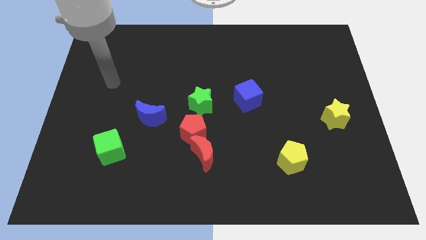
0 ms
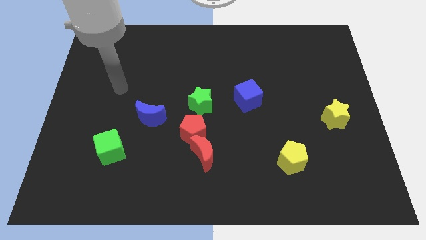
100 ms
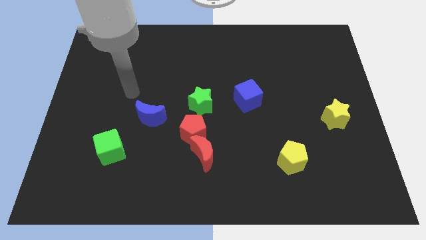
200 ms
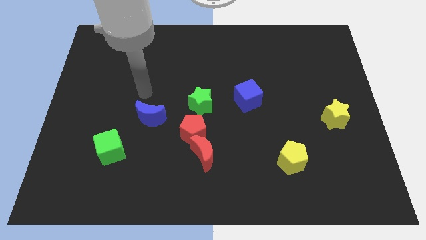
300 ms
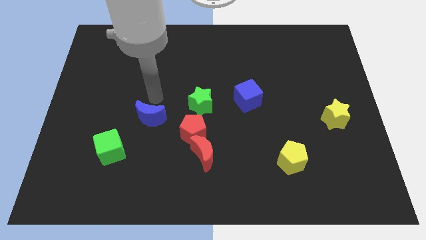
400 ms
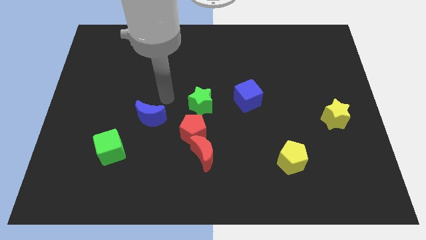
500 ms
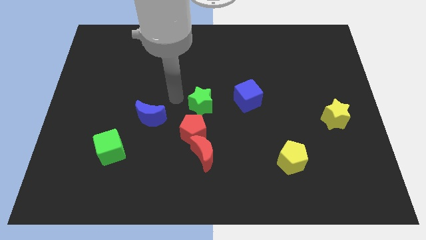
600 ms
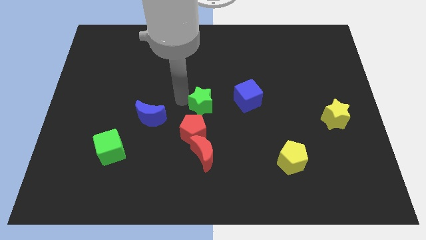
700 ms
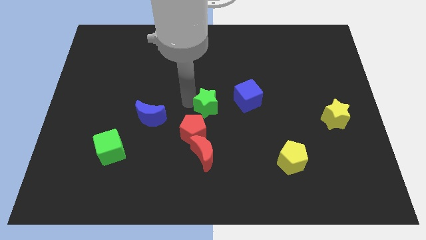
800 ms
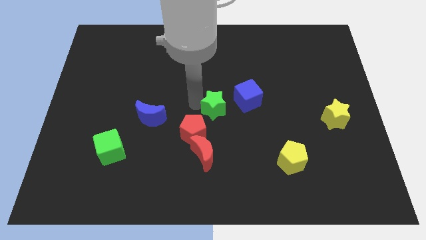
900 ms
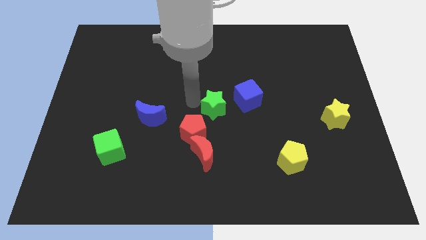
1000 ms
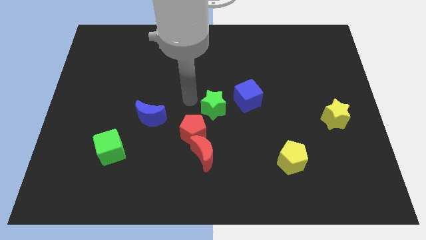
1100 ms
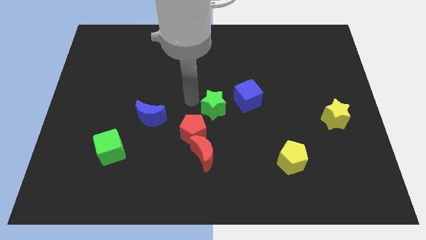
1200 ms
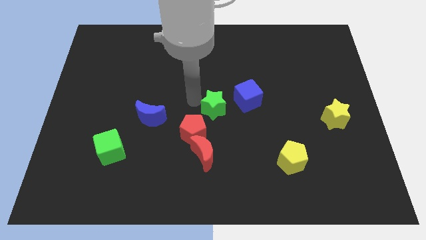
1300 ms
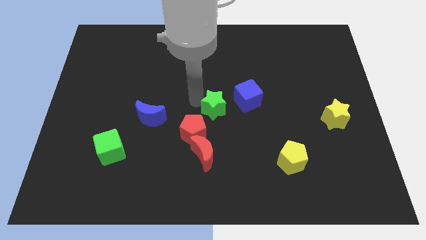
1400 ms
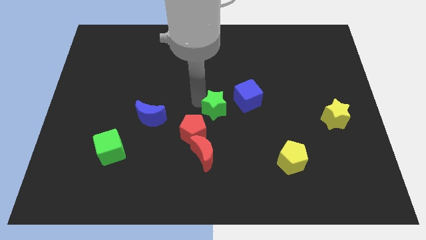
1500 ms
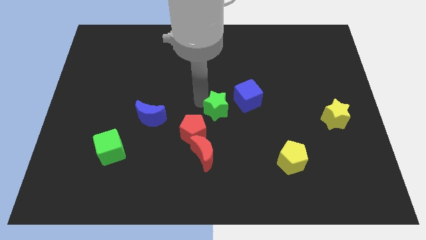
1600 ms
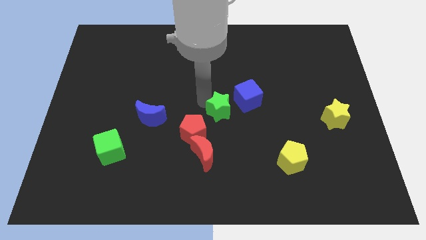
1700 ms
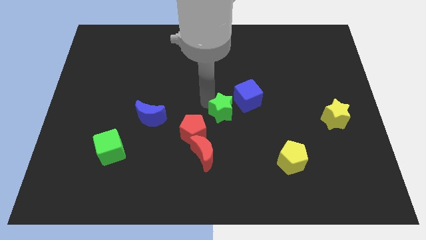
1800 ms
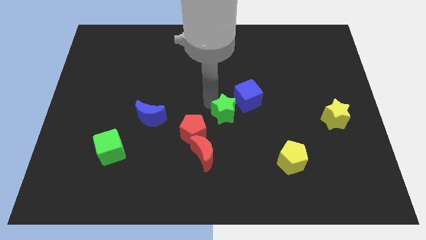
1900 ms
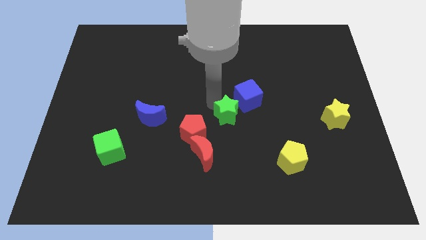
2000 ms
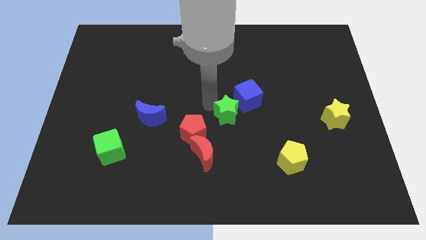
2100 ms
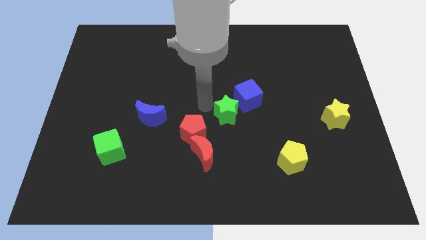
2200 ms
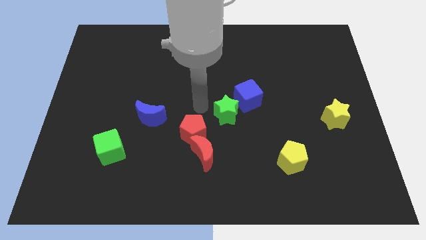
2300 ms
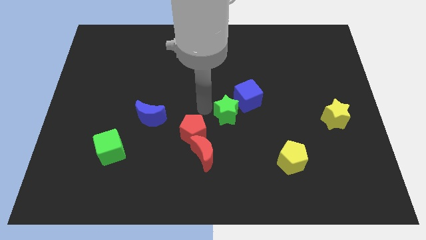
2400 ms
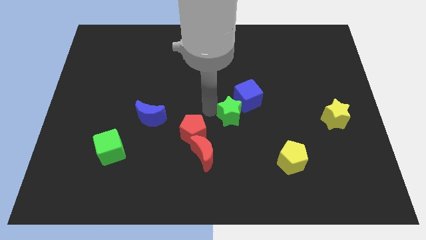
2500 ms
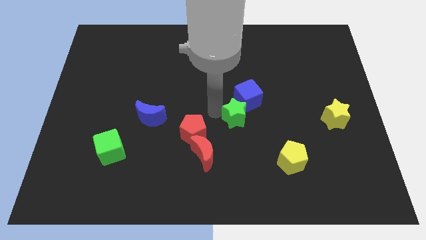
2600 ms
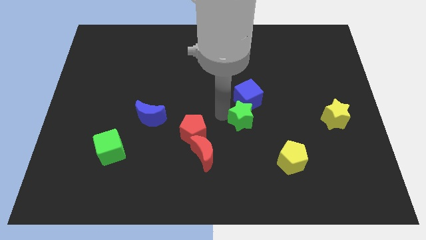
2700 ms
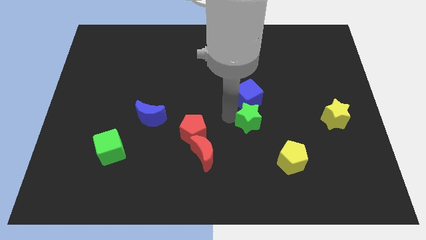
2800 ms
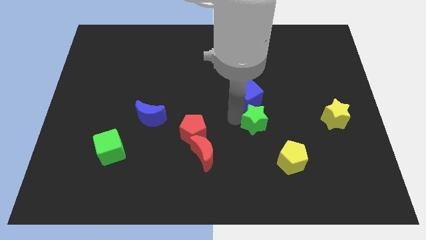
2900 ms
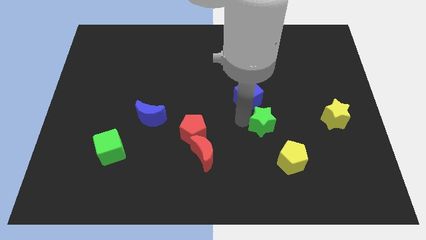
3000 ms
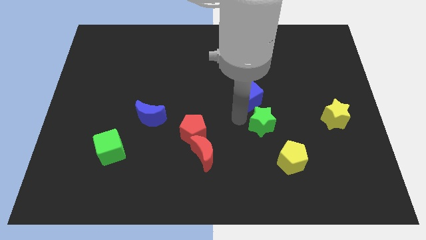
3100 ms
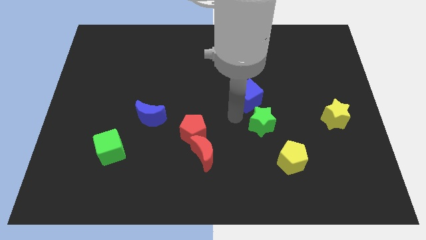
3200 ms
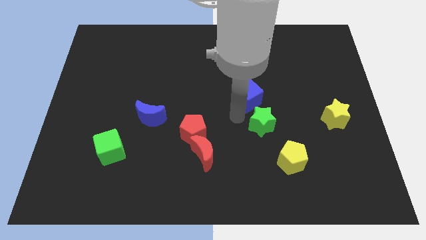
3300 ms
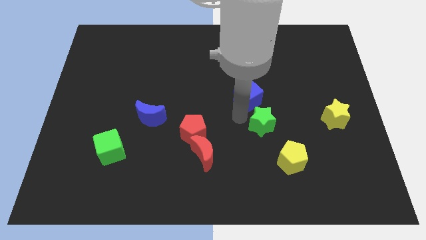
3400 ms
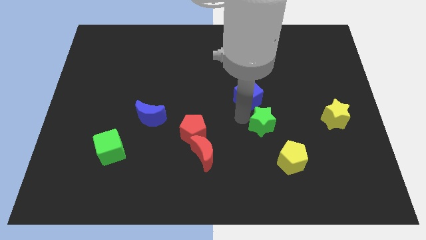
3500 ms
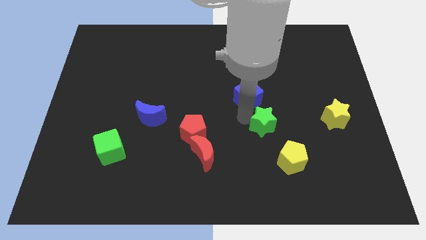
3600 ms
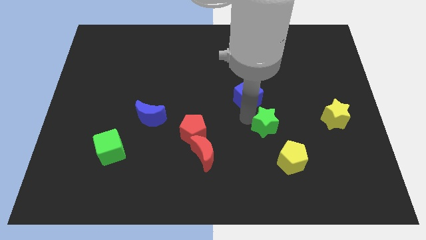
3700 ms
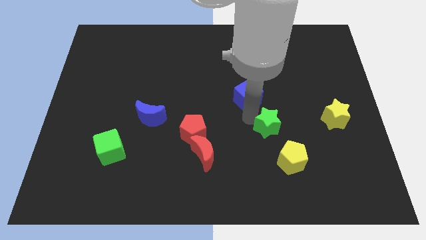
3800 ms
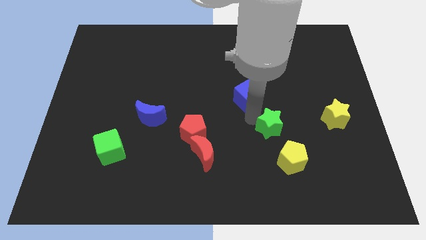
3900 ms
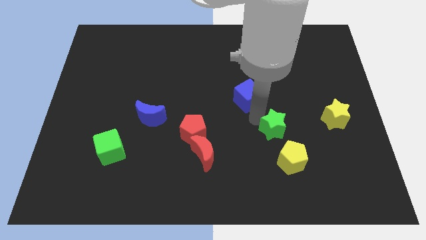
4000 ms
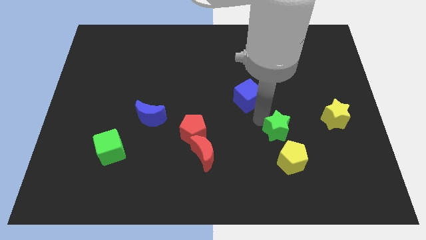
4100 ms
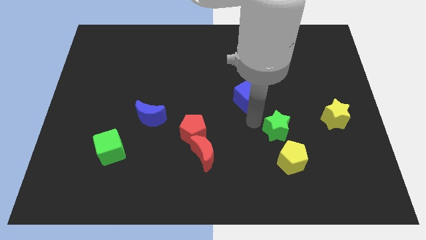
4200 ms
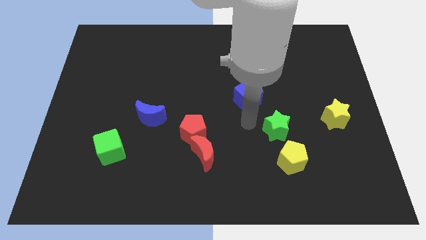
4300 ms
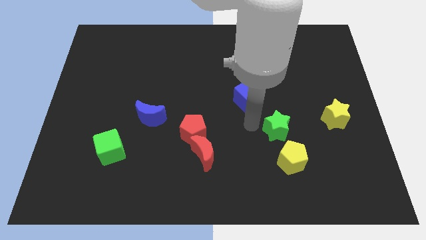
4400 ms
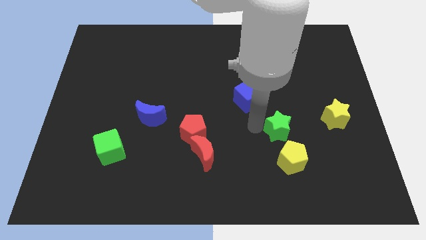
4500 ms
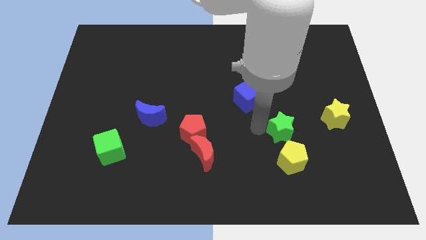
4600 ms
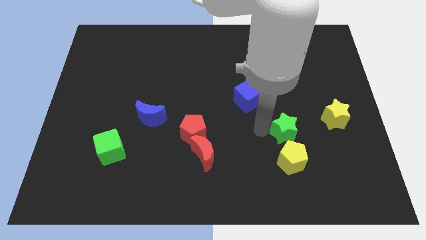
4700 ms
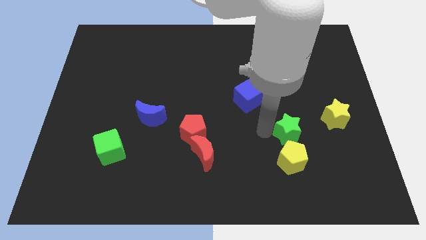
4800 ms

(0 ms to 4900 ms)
slide the green star diagonally up and to the right of the yellow pentagon

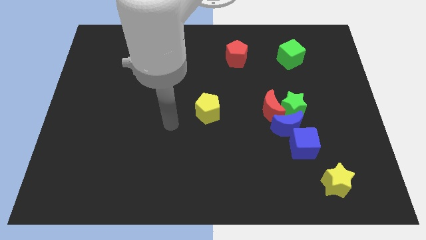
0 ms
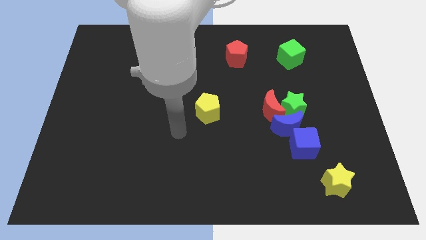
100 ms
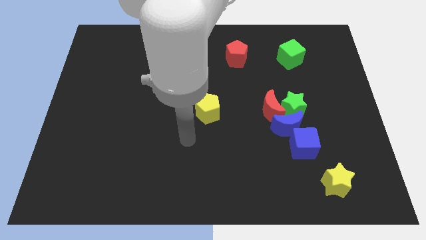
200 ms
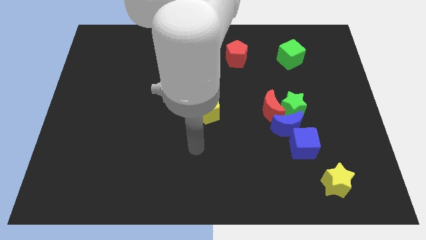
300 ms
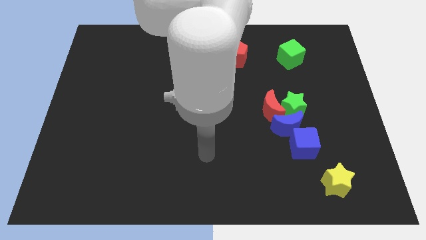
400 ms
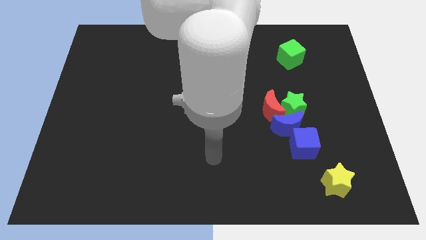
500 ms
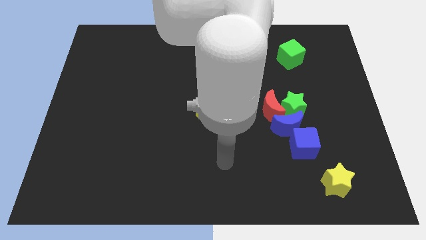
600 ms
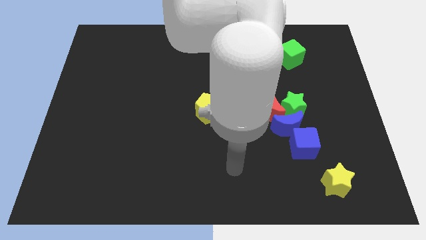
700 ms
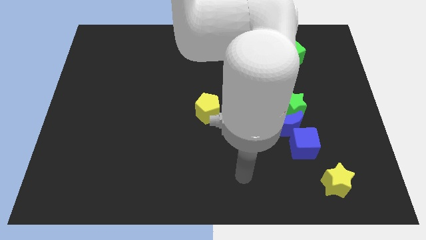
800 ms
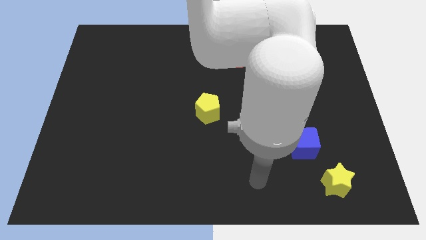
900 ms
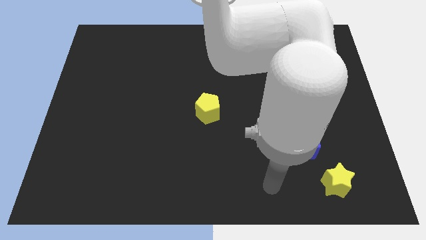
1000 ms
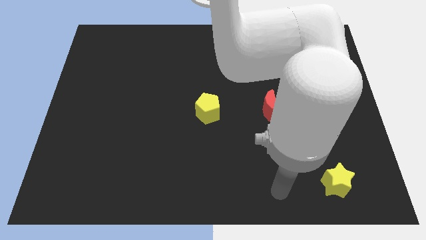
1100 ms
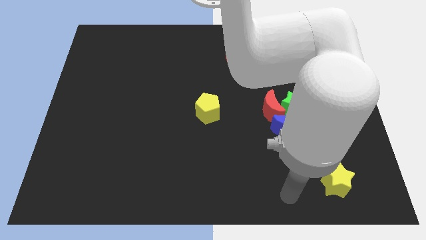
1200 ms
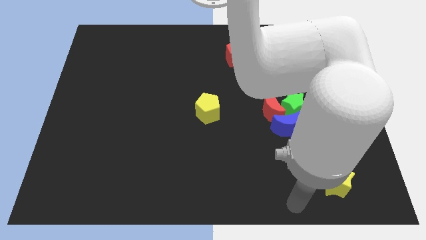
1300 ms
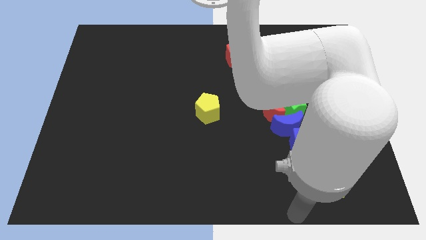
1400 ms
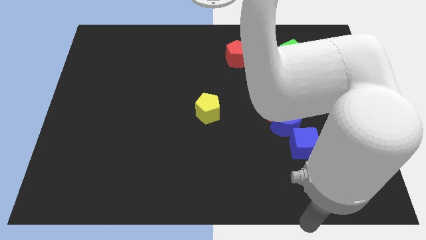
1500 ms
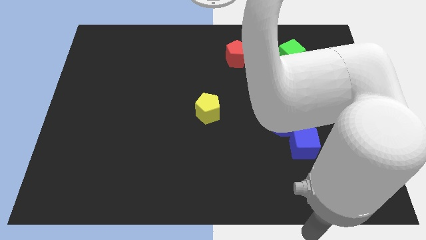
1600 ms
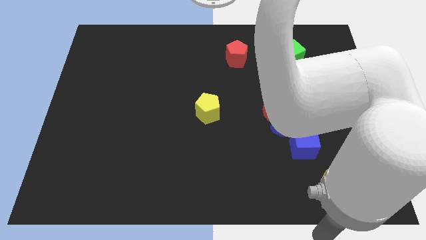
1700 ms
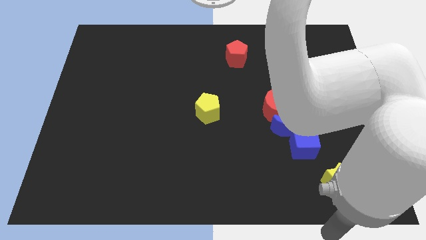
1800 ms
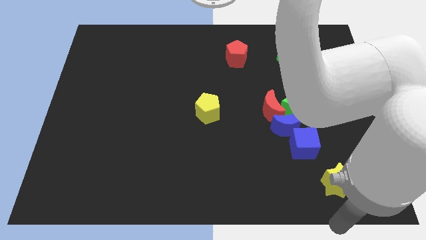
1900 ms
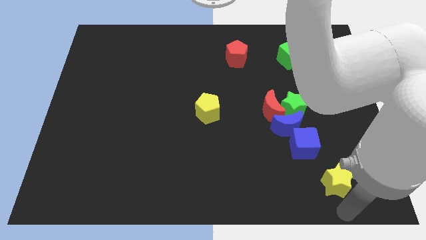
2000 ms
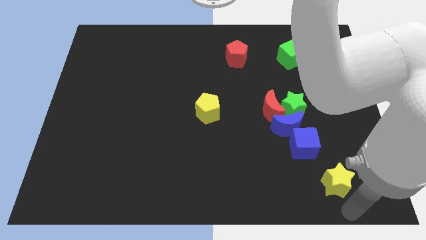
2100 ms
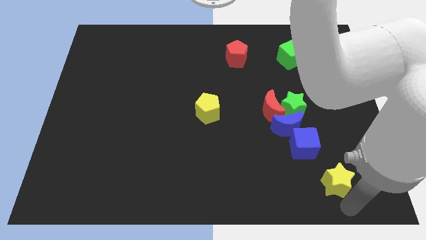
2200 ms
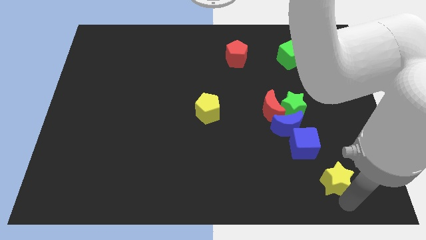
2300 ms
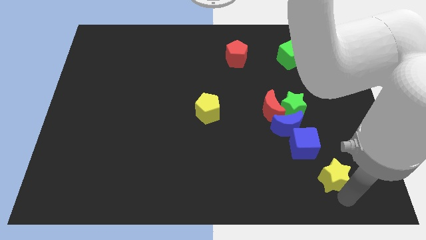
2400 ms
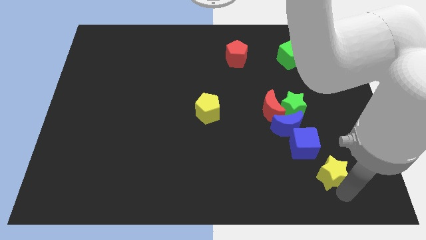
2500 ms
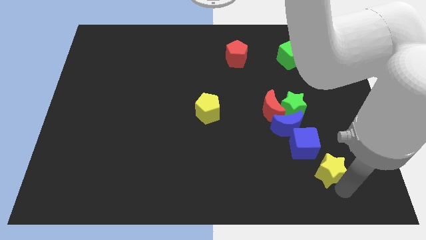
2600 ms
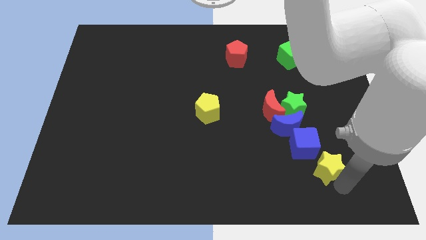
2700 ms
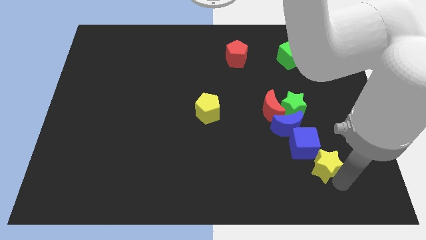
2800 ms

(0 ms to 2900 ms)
move the yellow star to the bottom right side of the blue moon
